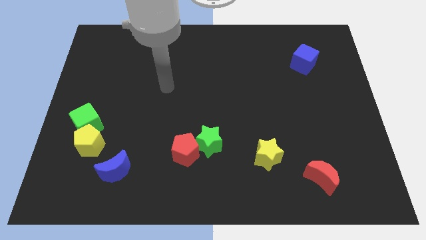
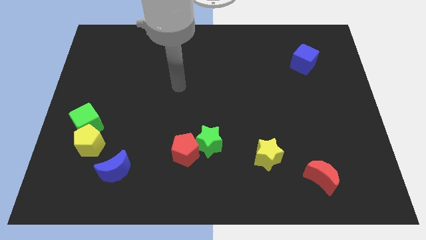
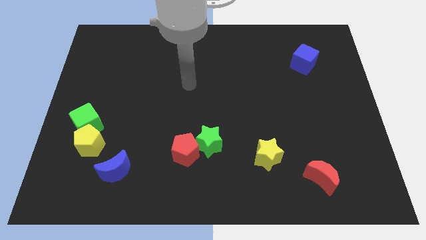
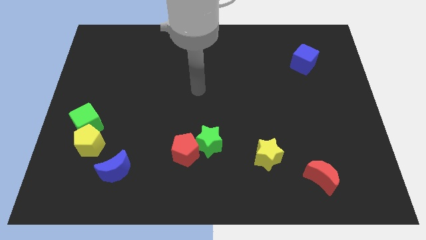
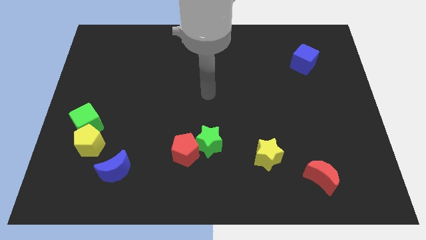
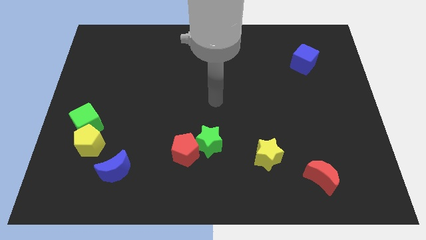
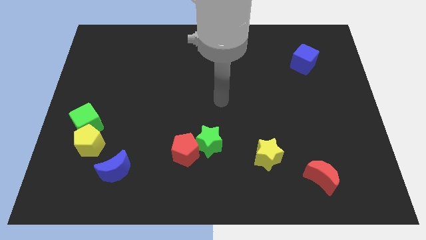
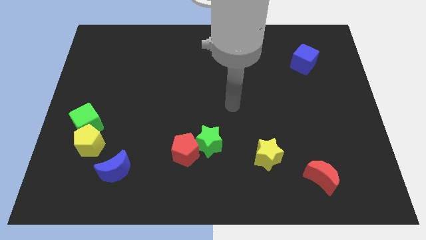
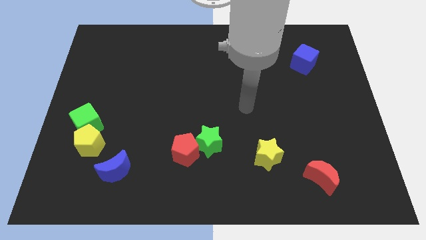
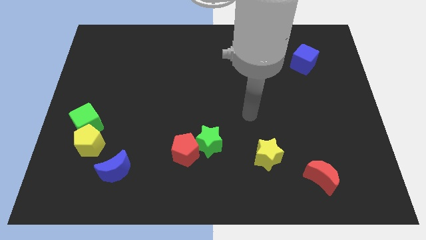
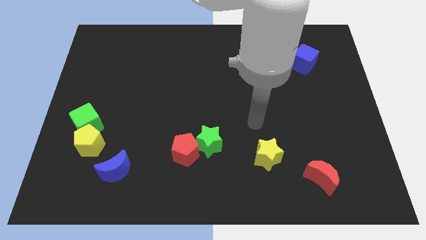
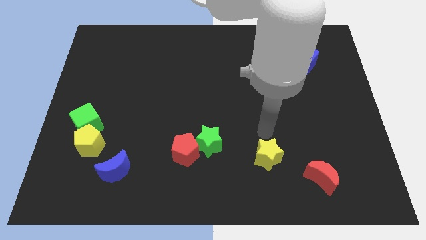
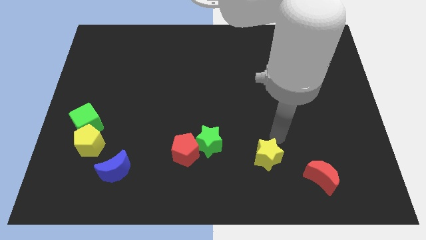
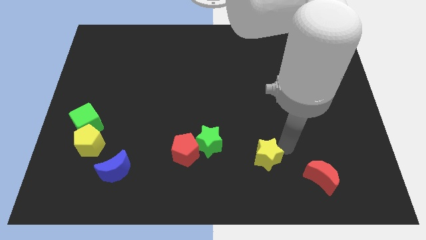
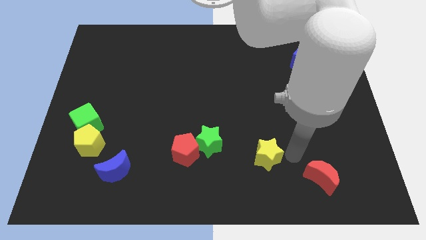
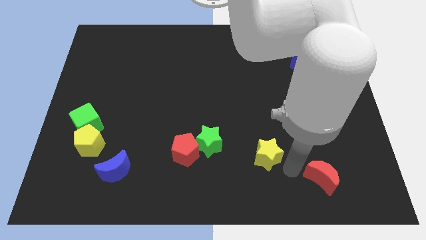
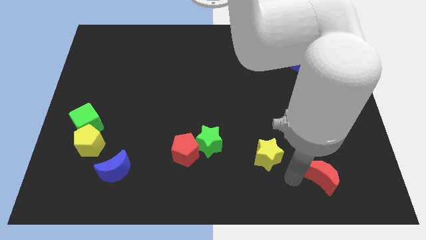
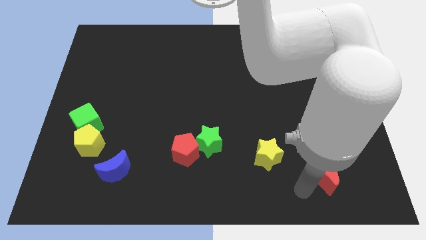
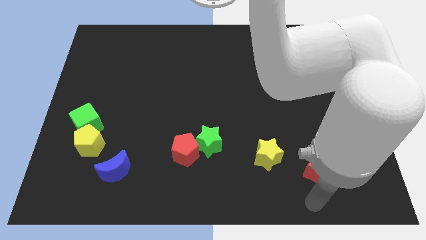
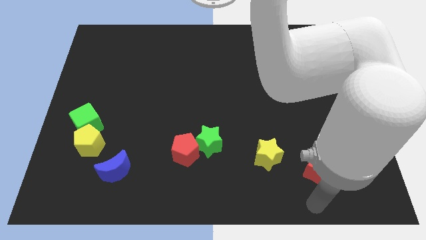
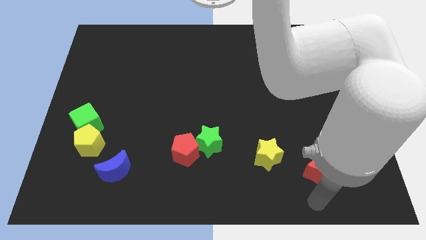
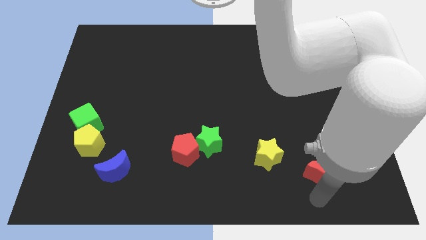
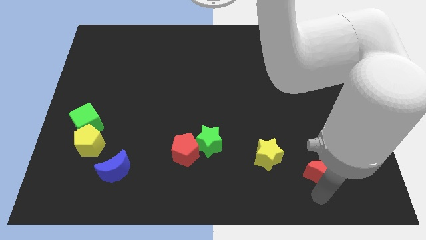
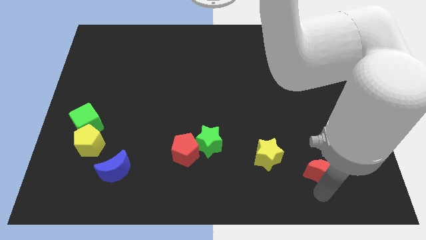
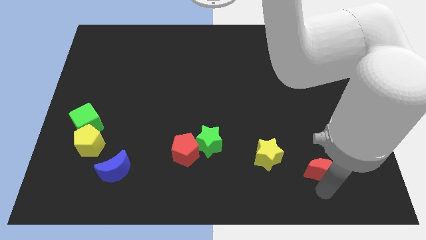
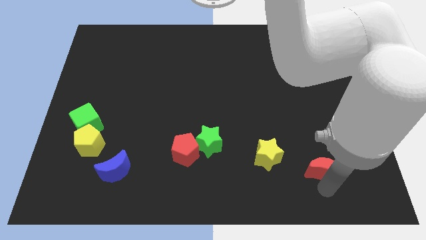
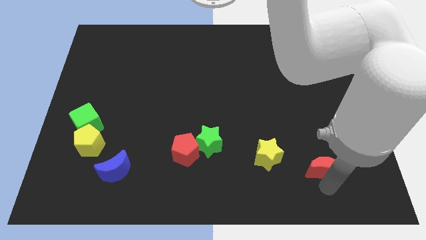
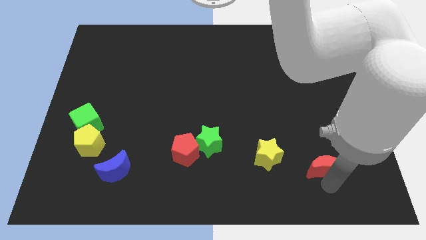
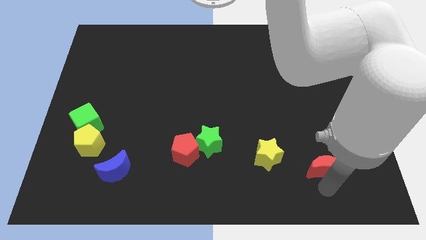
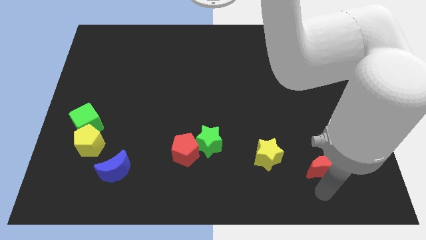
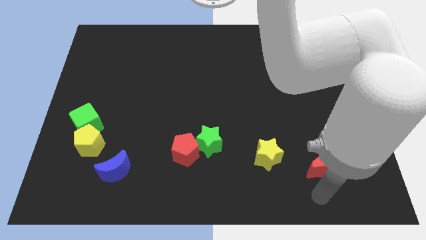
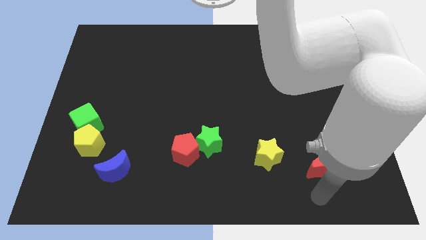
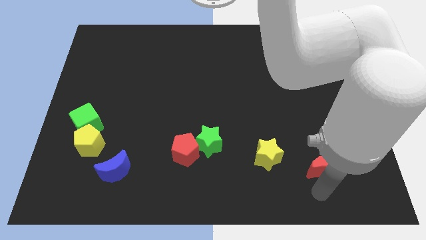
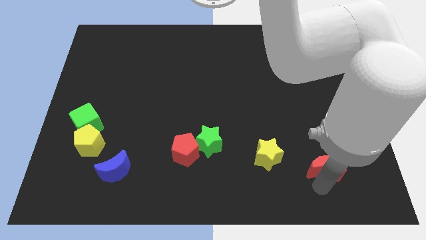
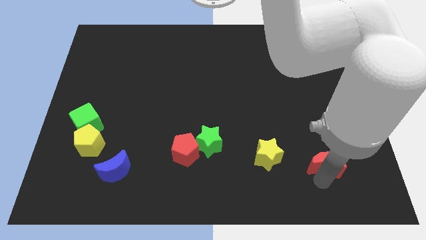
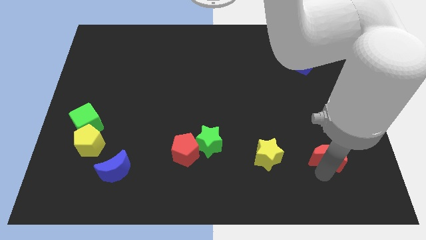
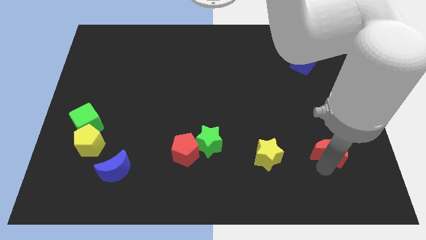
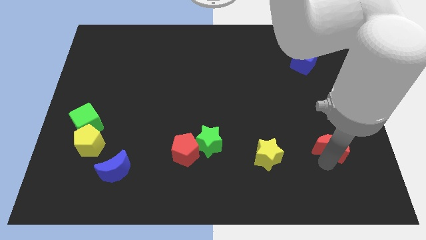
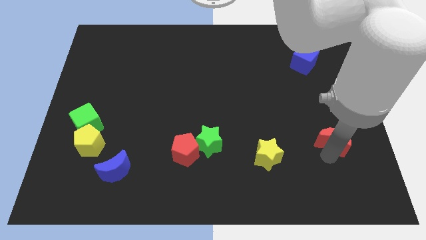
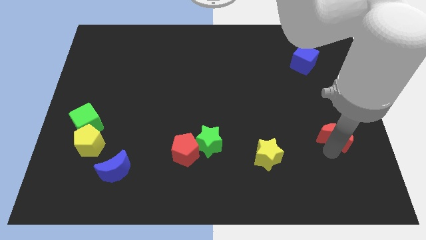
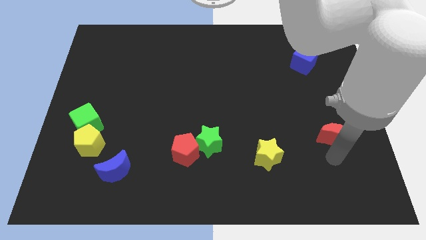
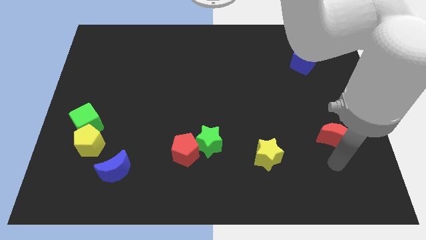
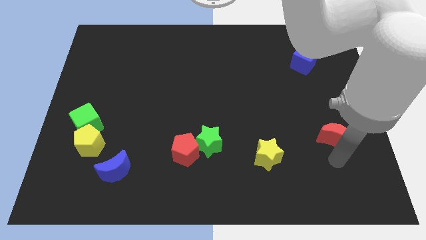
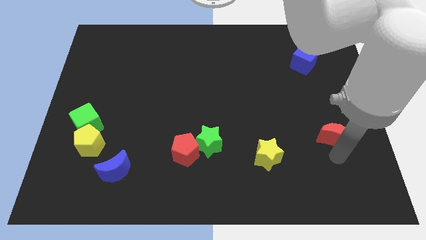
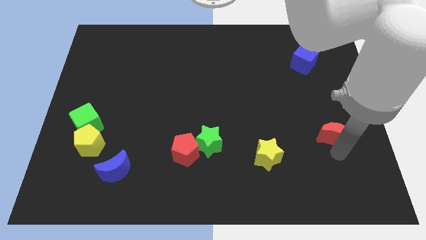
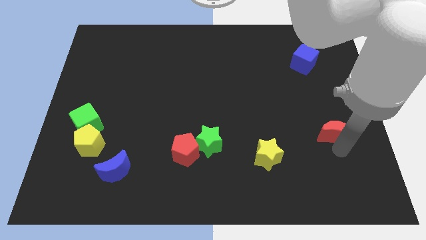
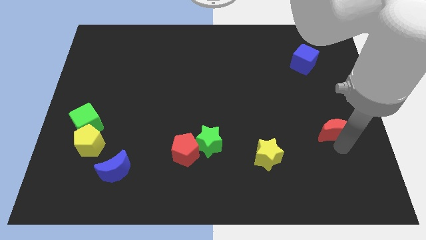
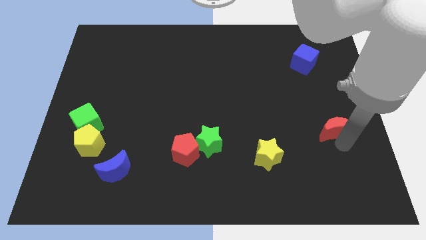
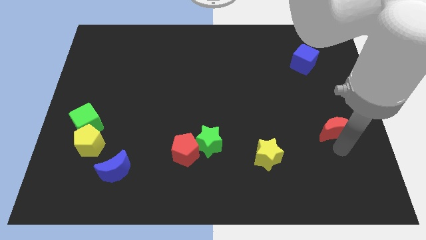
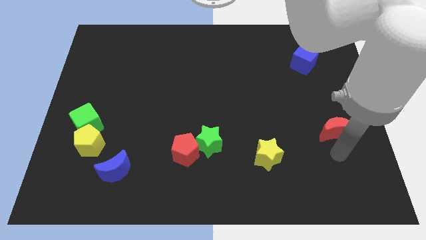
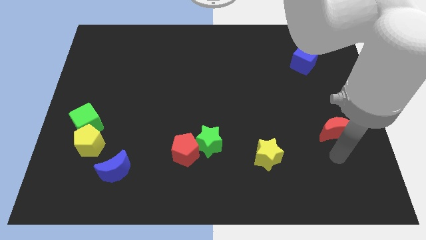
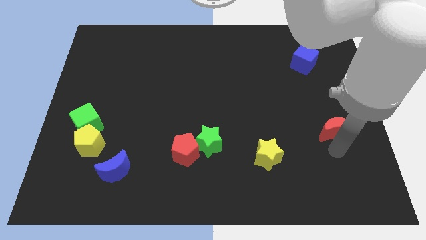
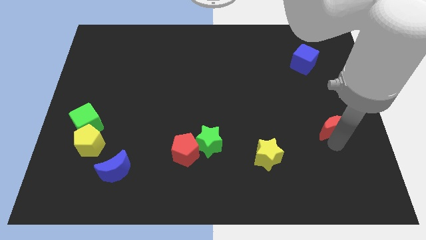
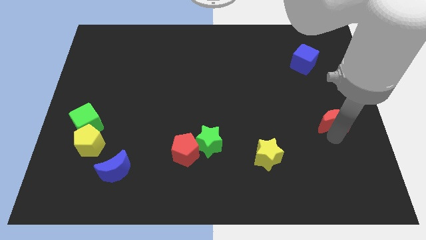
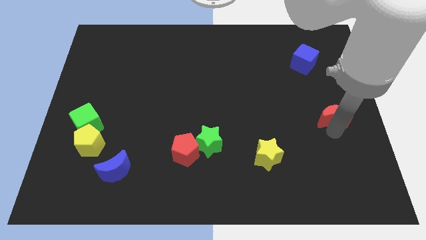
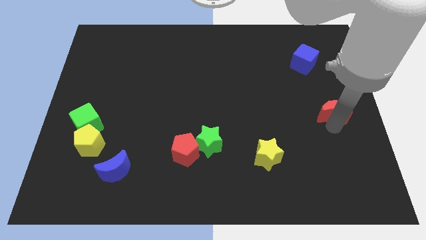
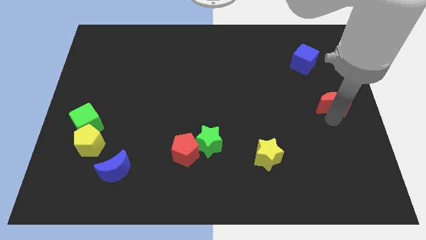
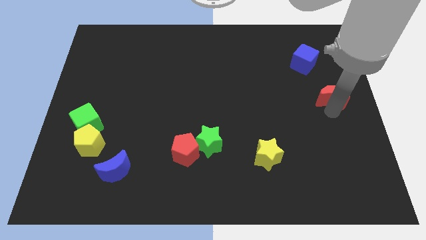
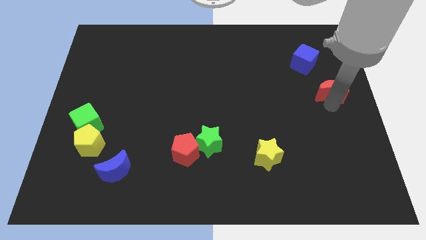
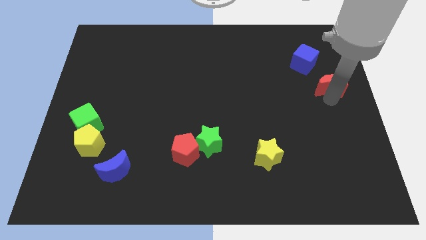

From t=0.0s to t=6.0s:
move the red moon to the bottom right of the blue cube

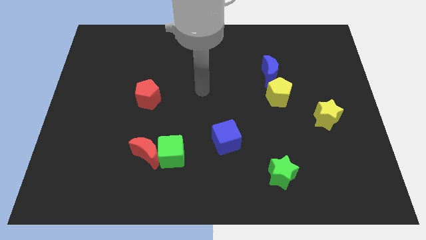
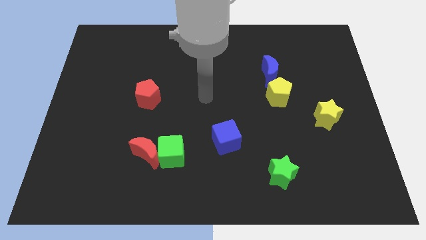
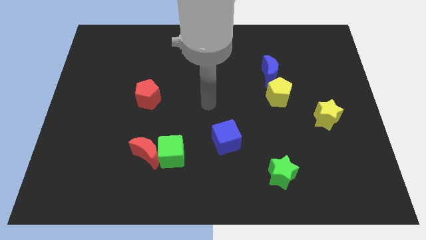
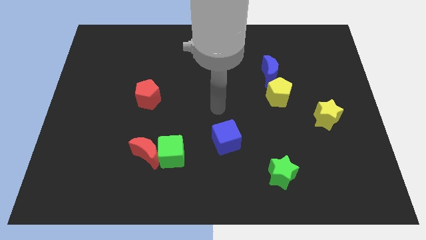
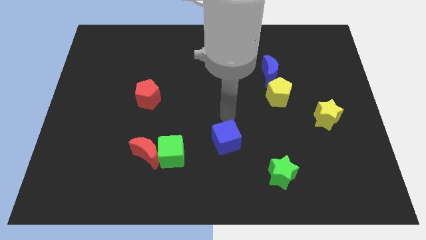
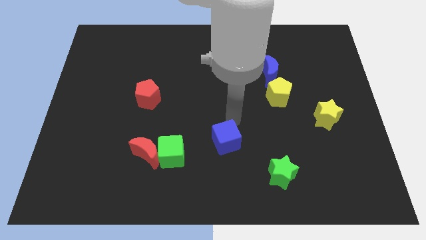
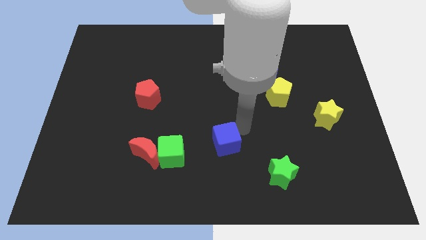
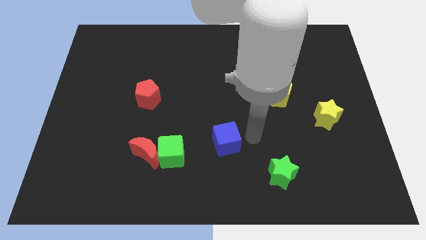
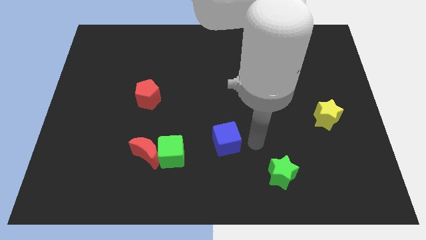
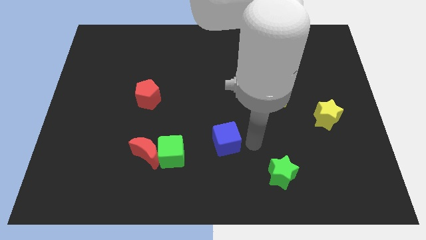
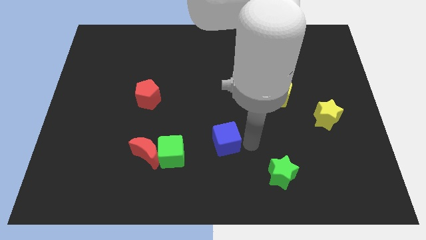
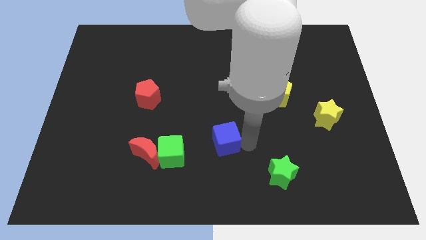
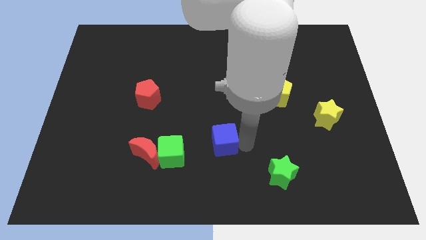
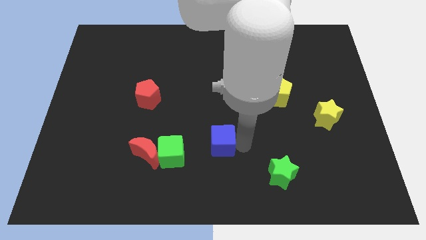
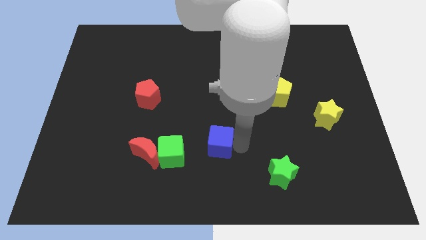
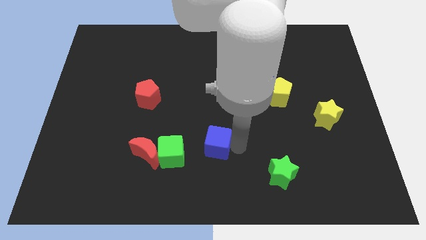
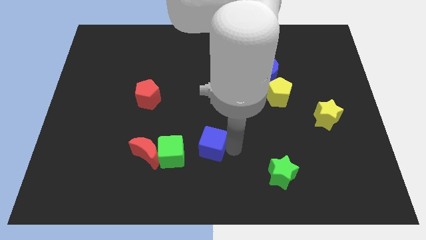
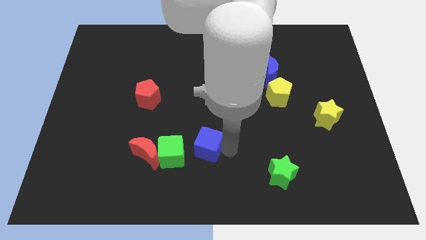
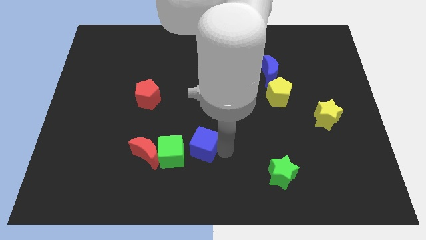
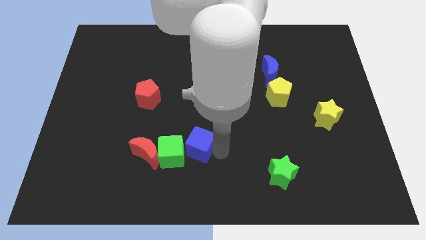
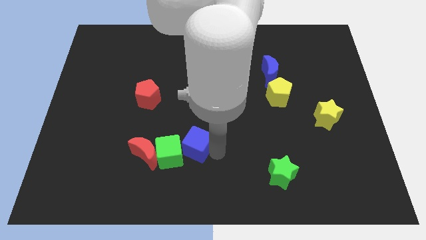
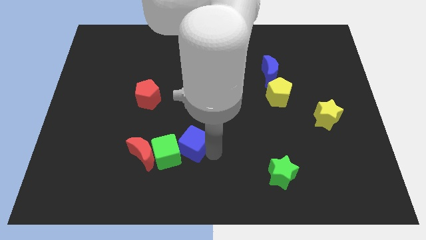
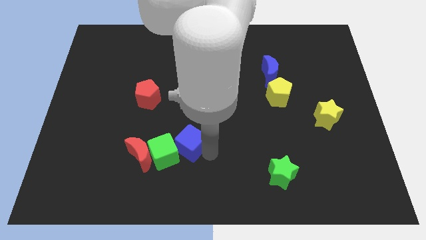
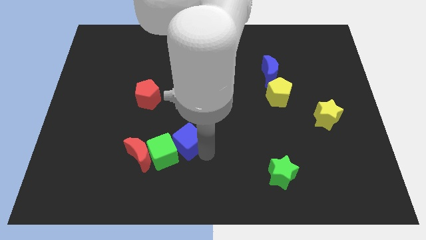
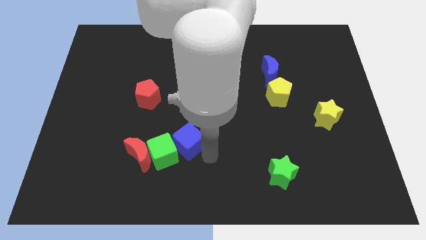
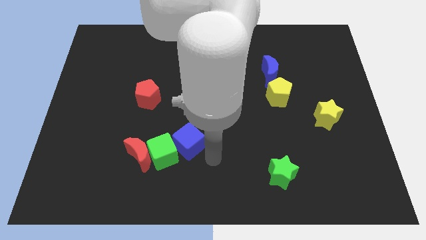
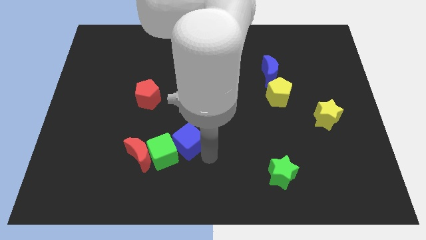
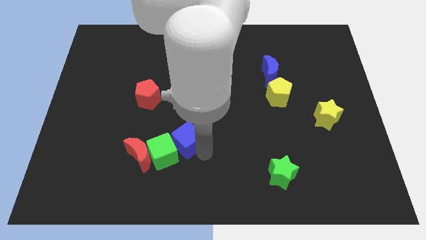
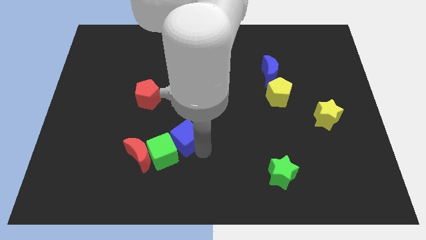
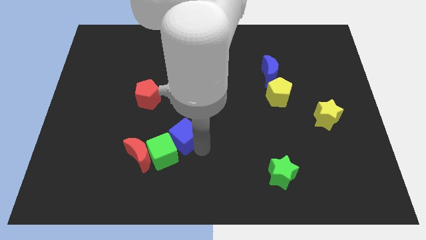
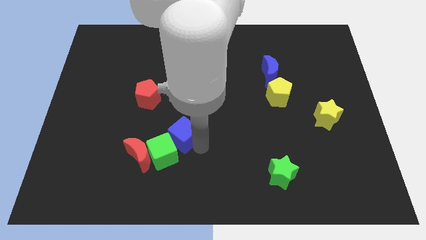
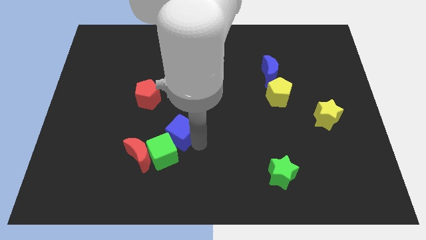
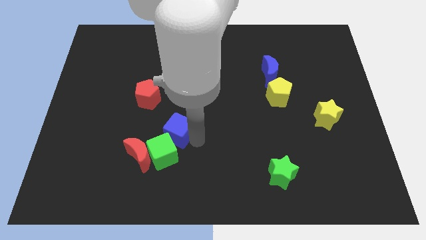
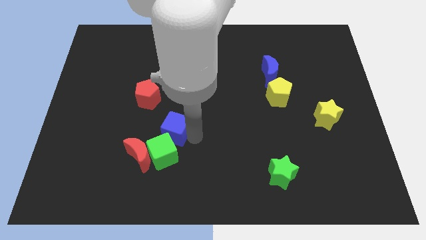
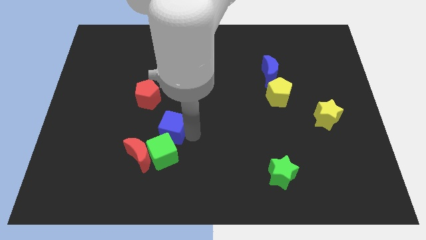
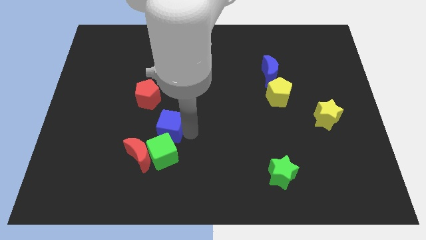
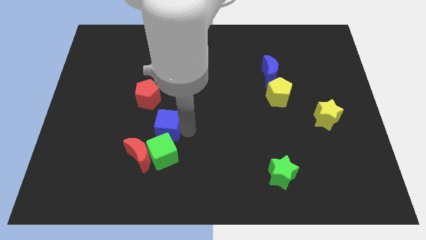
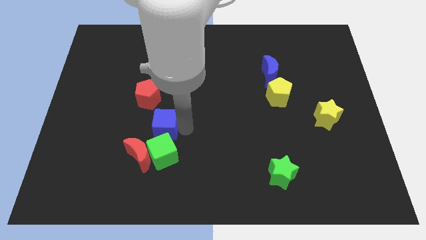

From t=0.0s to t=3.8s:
push the blue cube diagonally up and to the left of the green cube
